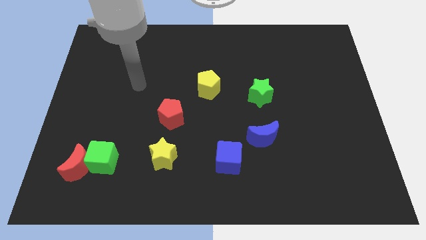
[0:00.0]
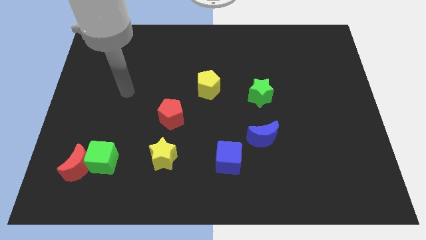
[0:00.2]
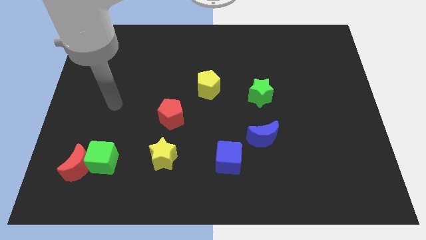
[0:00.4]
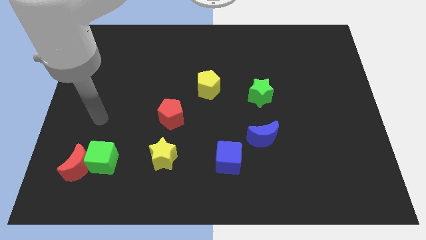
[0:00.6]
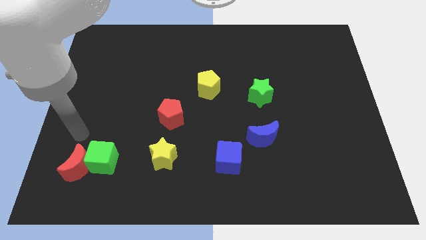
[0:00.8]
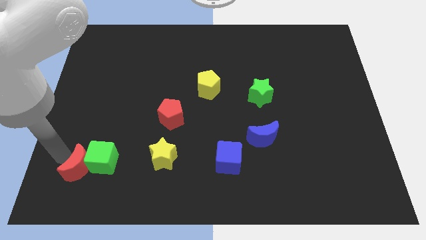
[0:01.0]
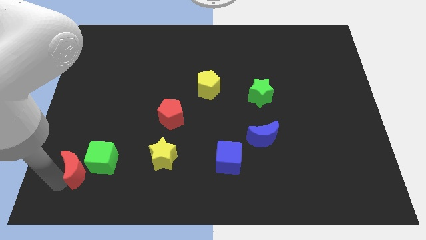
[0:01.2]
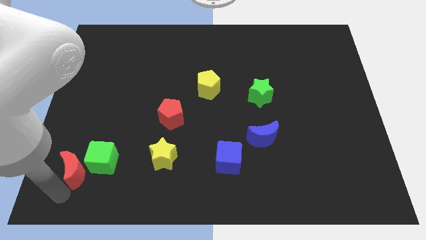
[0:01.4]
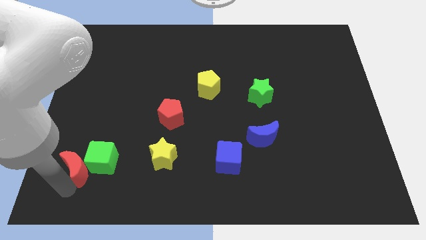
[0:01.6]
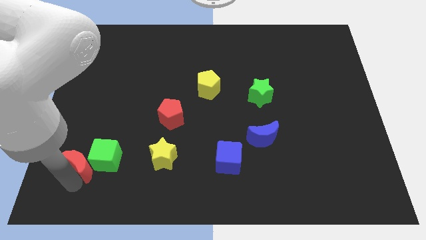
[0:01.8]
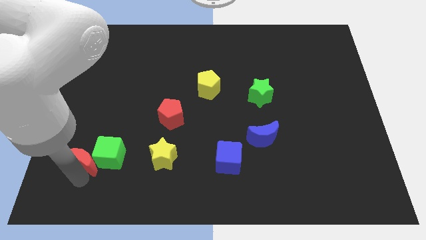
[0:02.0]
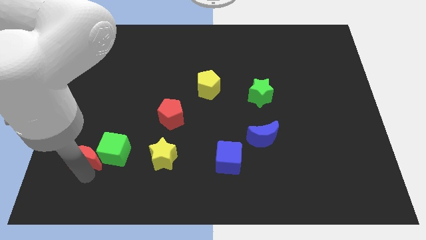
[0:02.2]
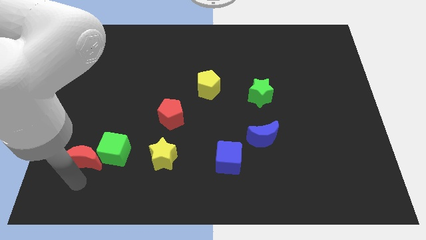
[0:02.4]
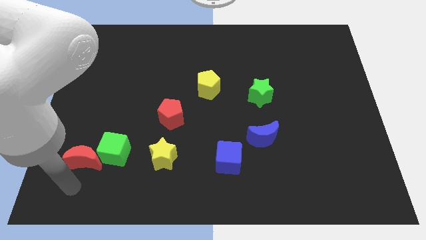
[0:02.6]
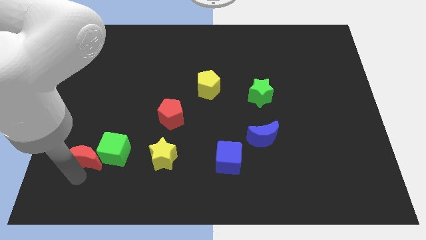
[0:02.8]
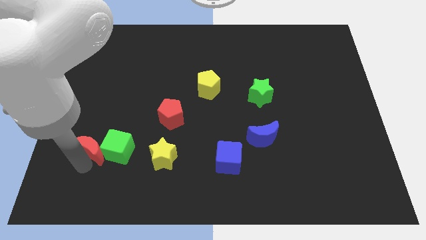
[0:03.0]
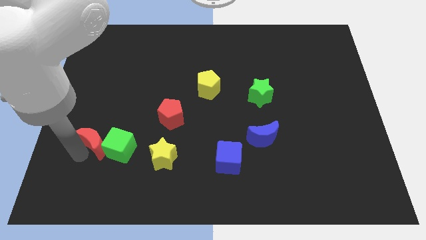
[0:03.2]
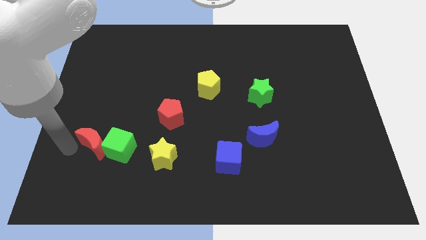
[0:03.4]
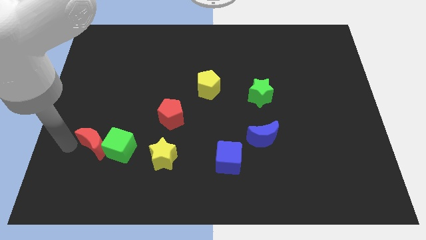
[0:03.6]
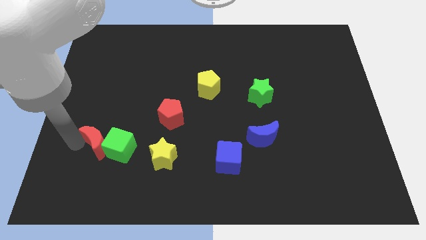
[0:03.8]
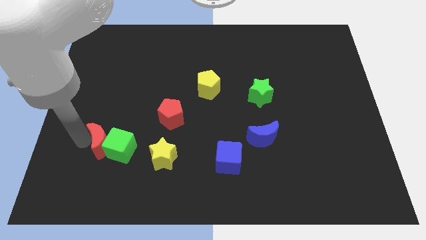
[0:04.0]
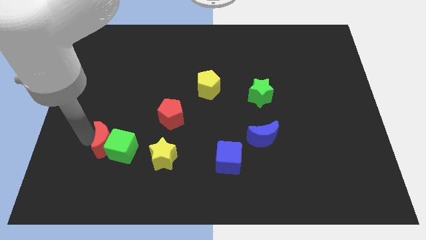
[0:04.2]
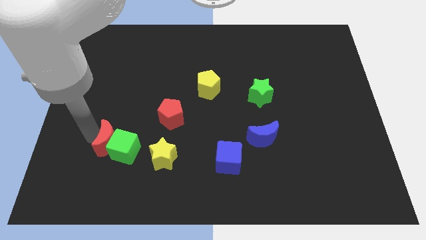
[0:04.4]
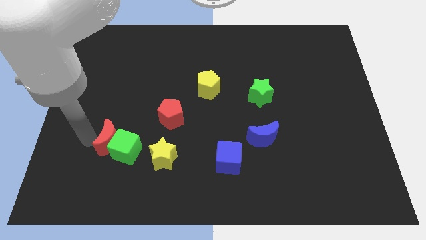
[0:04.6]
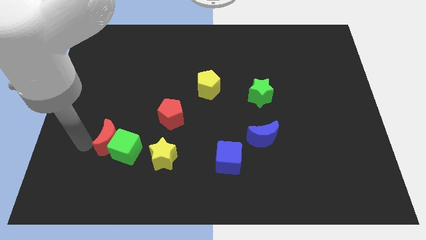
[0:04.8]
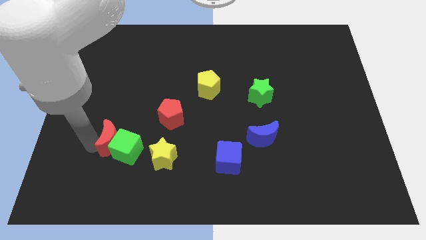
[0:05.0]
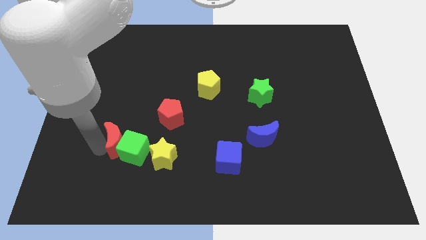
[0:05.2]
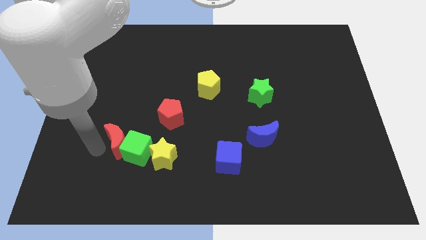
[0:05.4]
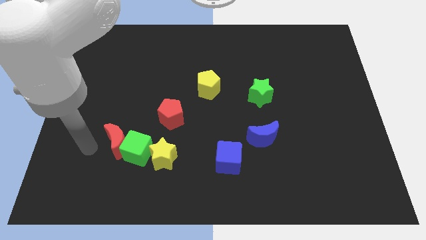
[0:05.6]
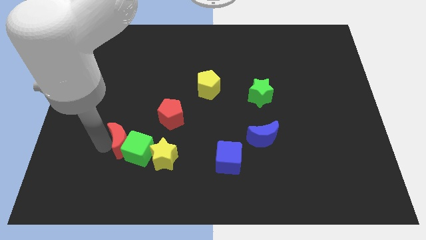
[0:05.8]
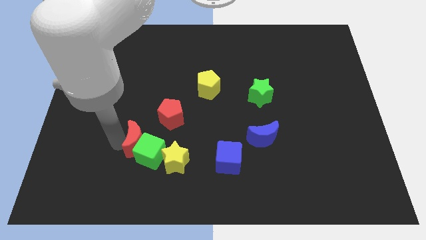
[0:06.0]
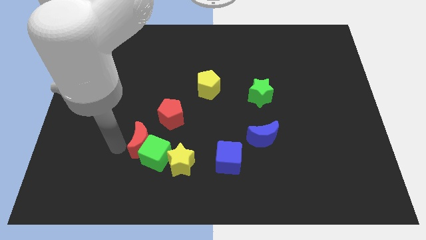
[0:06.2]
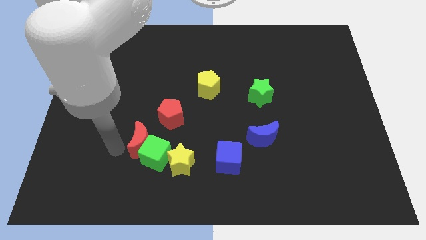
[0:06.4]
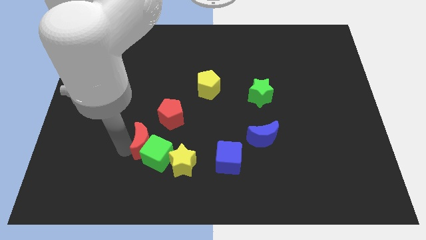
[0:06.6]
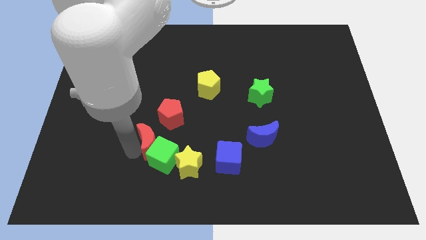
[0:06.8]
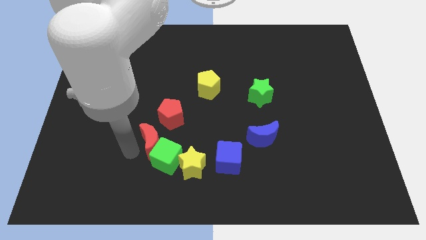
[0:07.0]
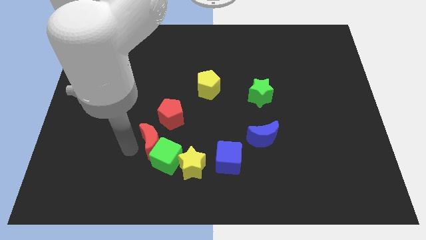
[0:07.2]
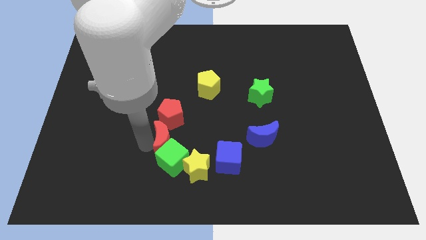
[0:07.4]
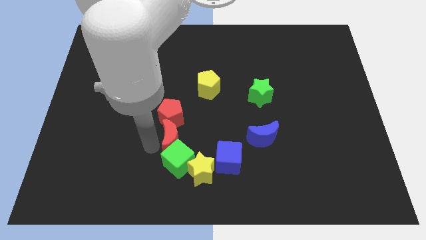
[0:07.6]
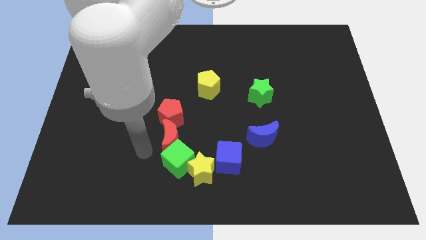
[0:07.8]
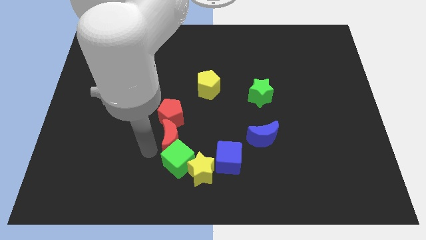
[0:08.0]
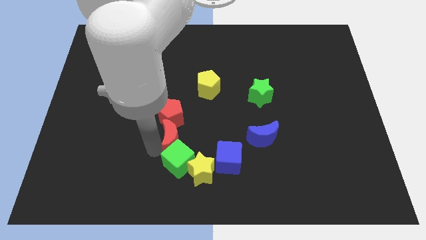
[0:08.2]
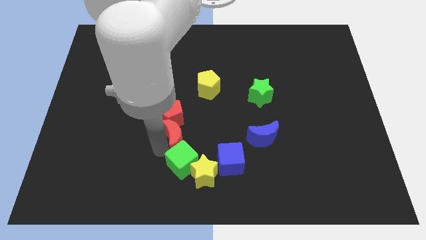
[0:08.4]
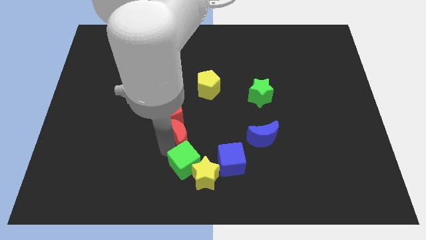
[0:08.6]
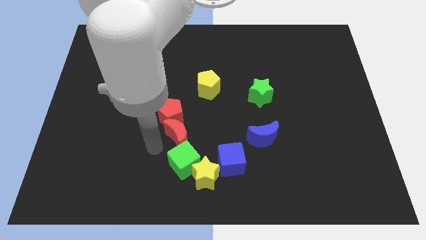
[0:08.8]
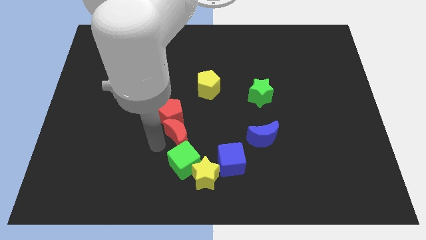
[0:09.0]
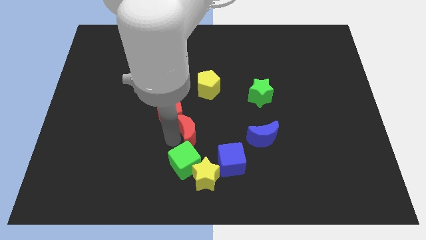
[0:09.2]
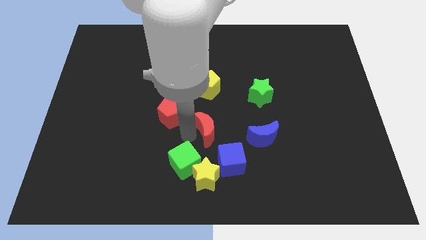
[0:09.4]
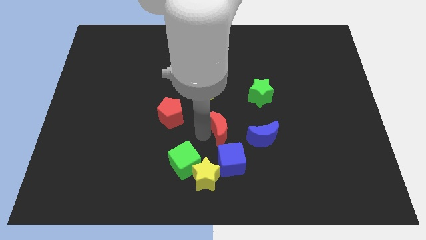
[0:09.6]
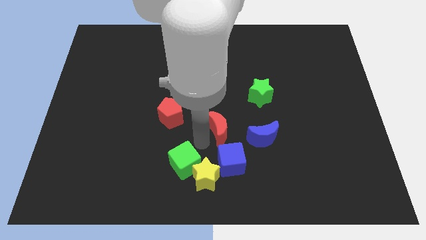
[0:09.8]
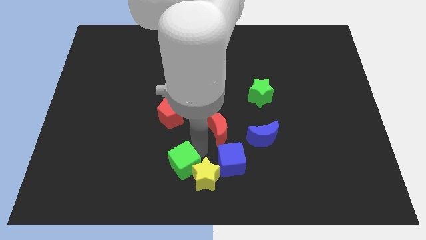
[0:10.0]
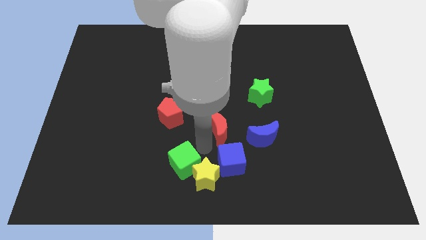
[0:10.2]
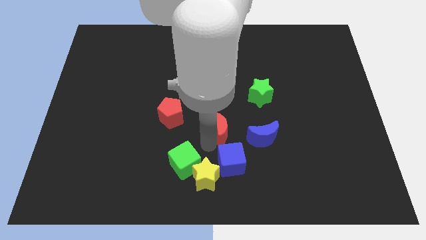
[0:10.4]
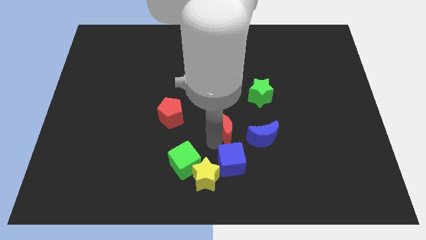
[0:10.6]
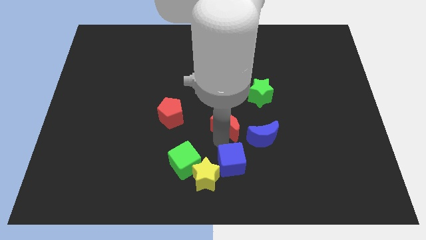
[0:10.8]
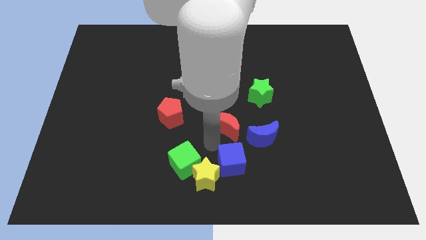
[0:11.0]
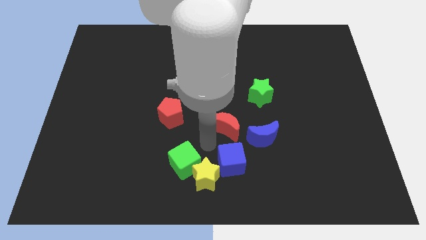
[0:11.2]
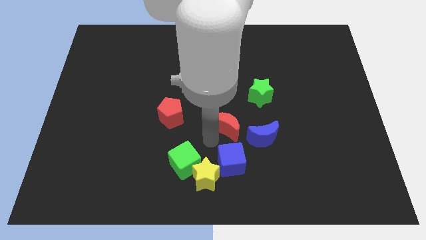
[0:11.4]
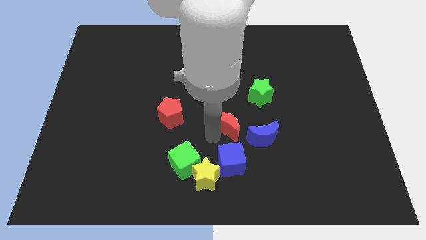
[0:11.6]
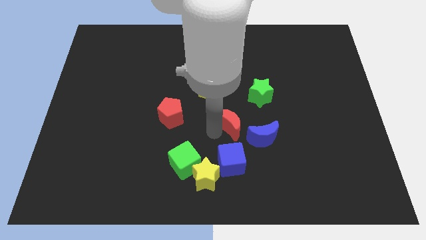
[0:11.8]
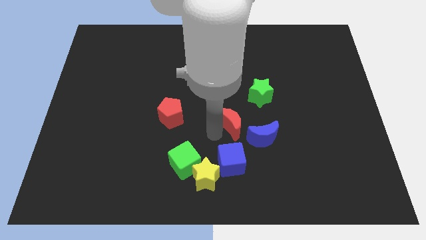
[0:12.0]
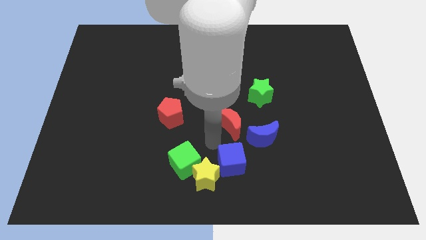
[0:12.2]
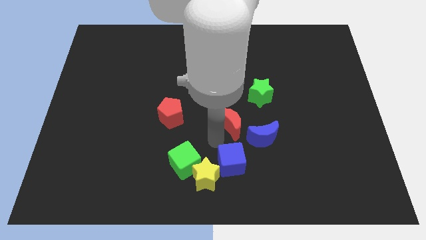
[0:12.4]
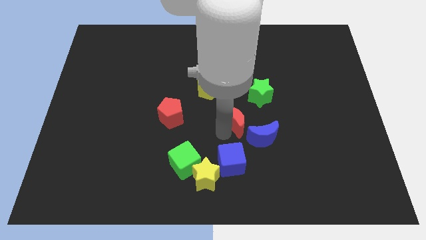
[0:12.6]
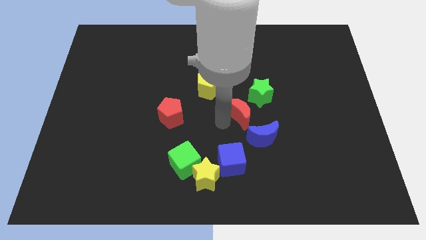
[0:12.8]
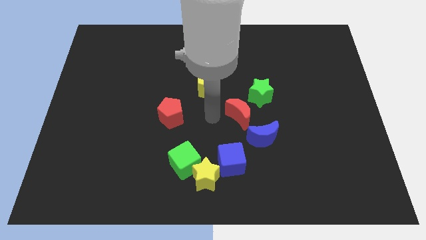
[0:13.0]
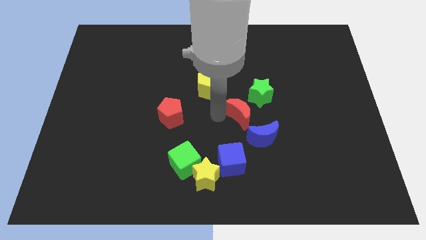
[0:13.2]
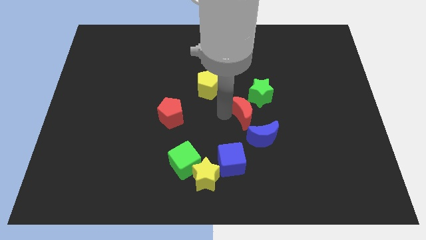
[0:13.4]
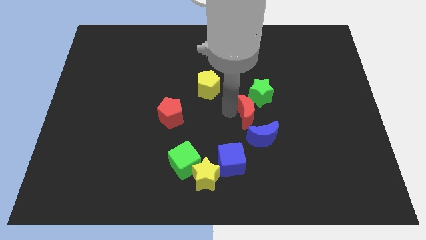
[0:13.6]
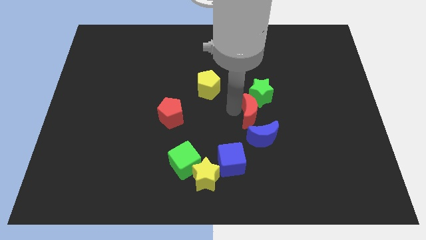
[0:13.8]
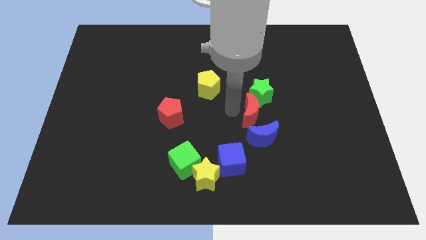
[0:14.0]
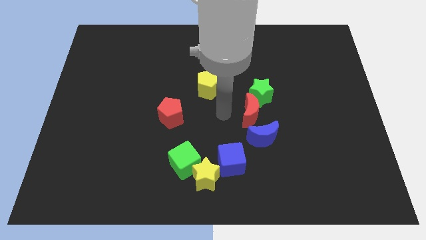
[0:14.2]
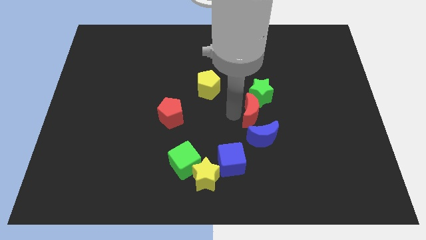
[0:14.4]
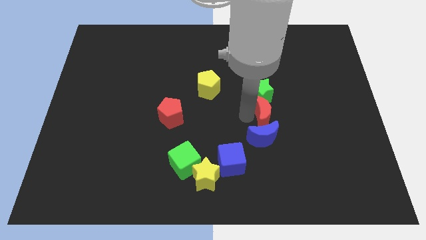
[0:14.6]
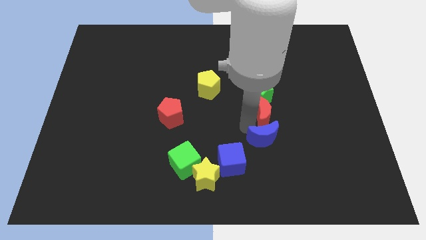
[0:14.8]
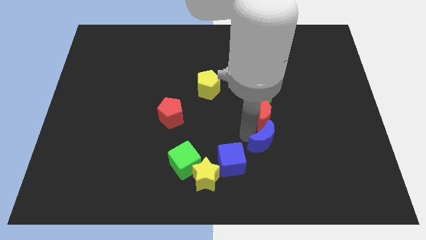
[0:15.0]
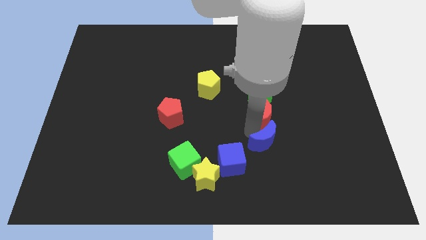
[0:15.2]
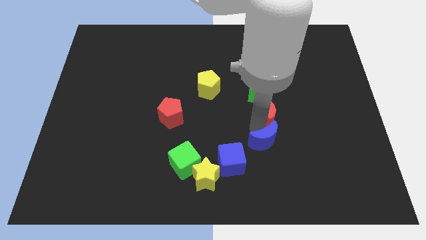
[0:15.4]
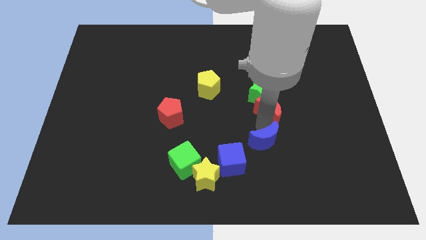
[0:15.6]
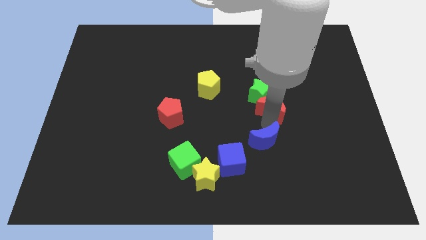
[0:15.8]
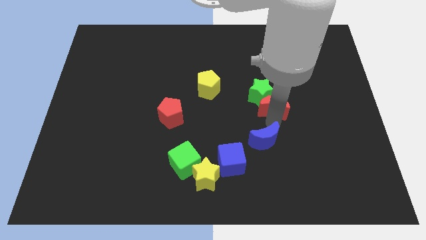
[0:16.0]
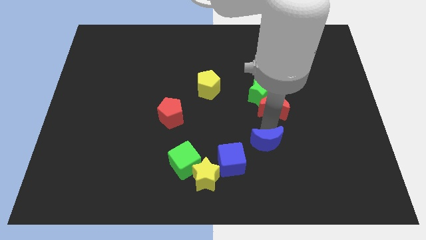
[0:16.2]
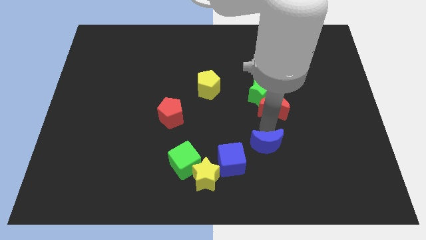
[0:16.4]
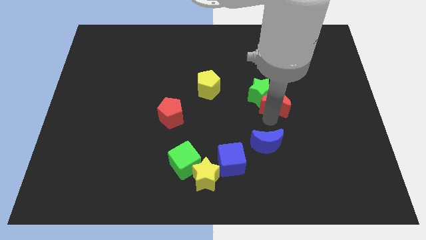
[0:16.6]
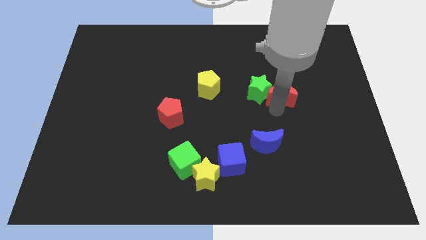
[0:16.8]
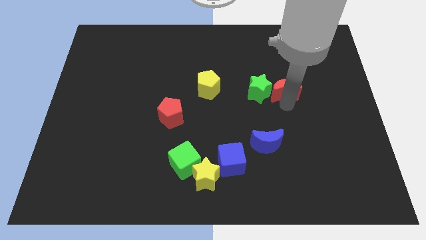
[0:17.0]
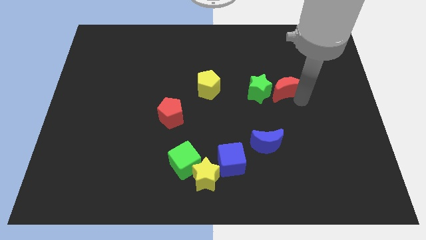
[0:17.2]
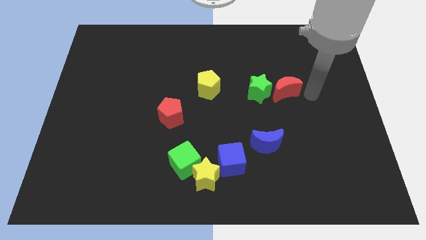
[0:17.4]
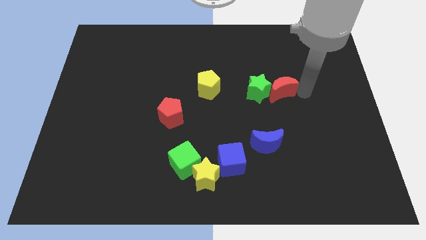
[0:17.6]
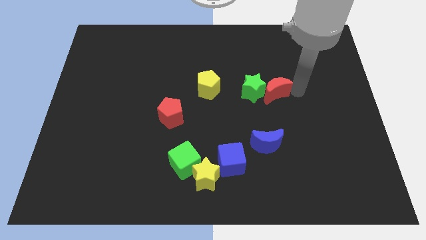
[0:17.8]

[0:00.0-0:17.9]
put the red moon just right of the yellow pentagon
